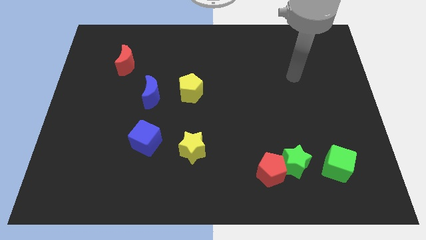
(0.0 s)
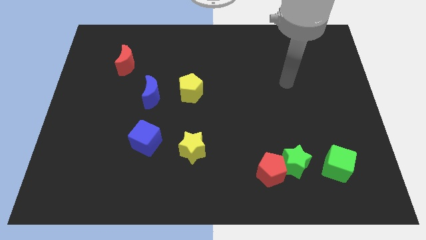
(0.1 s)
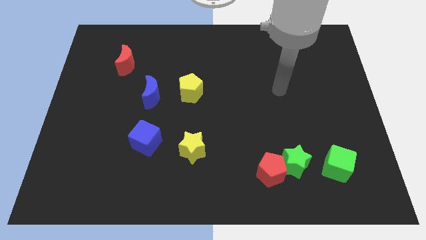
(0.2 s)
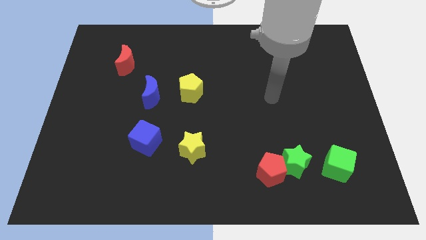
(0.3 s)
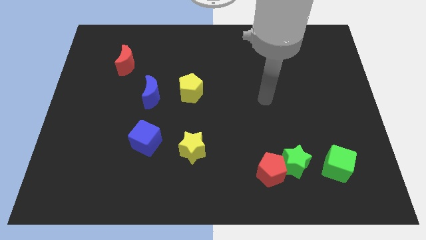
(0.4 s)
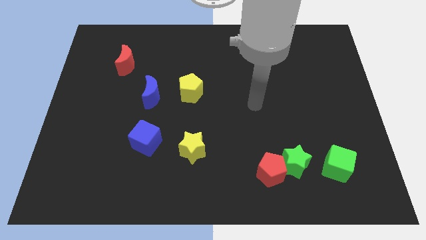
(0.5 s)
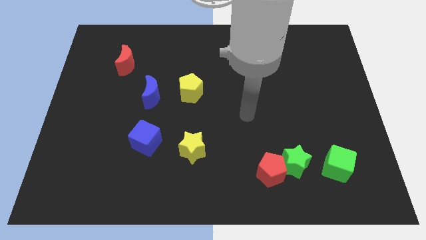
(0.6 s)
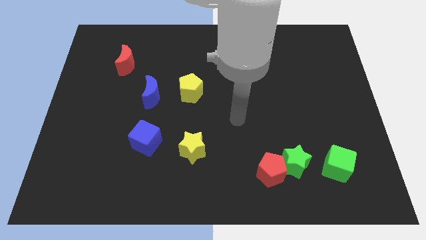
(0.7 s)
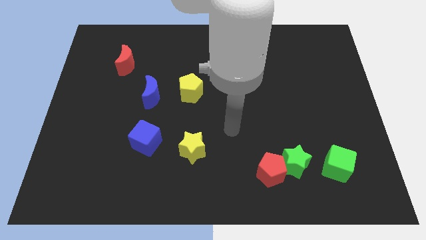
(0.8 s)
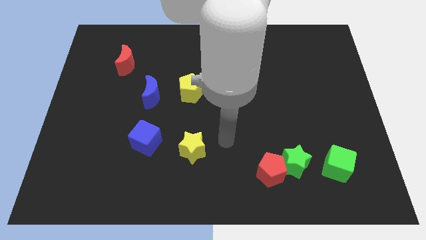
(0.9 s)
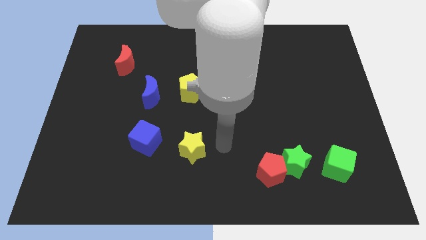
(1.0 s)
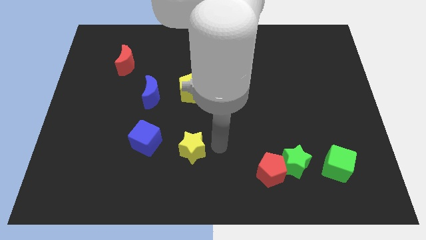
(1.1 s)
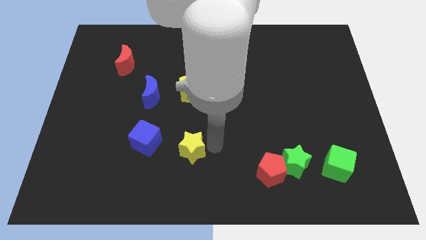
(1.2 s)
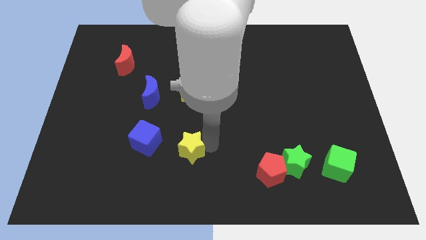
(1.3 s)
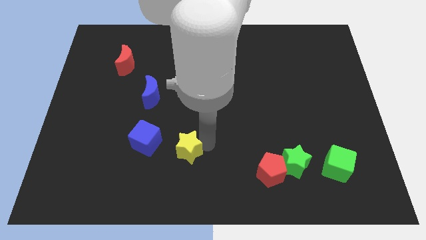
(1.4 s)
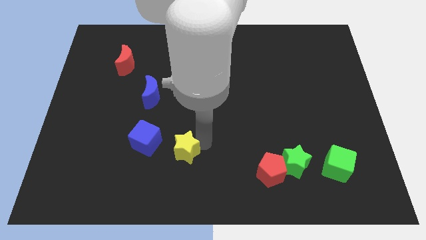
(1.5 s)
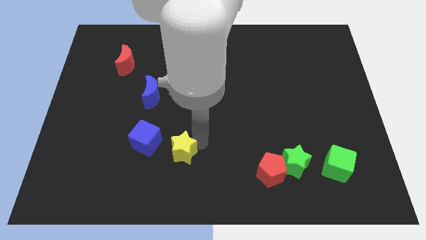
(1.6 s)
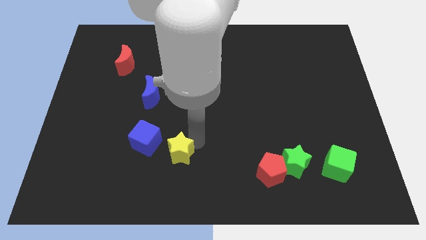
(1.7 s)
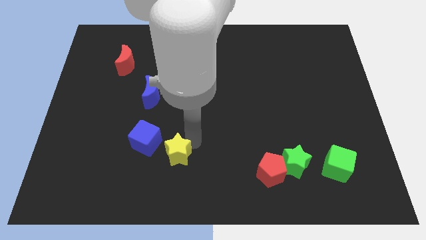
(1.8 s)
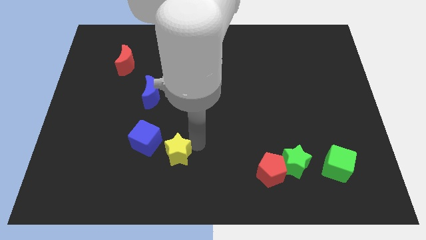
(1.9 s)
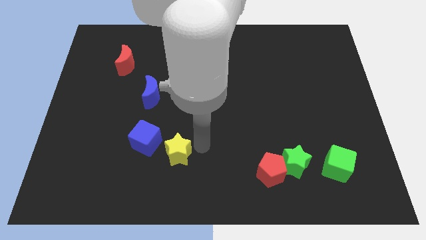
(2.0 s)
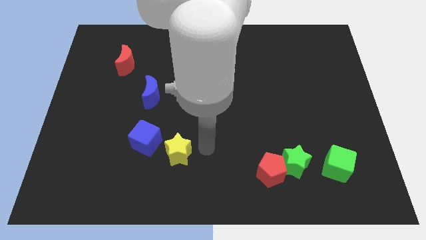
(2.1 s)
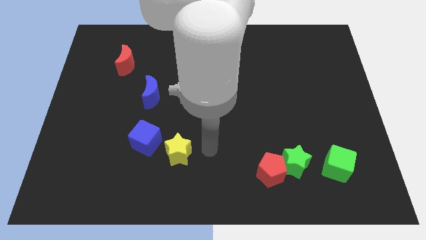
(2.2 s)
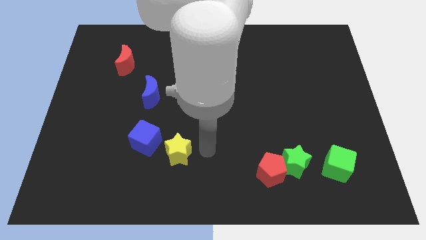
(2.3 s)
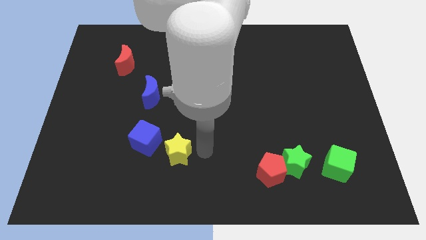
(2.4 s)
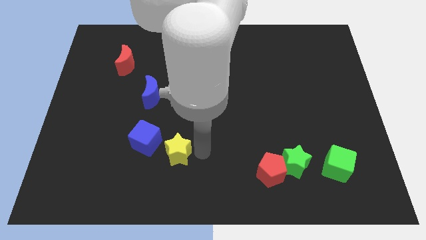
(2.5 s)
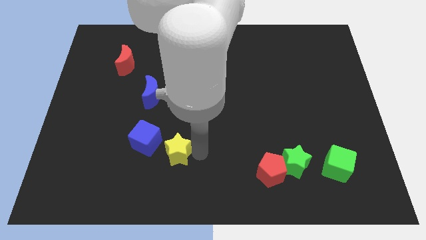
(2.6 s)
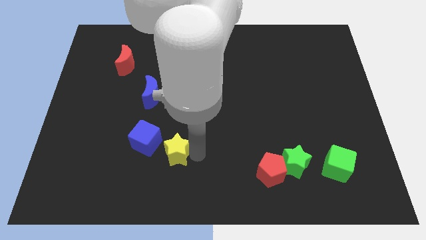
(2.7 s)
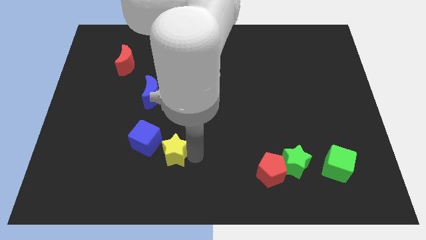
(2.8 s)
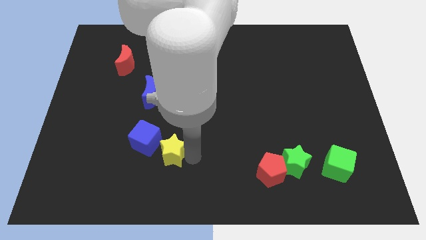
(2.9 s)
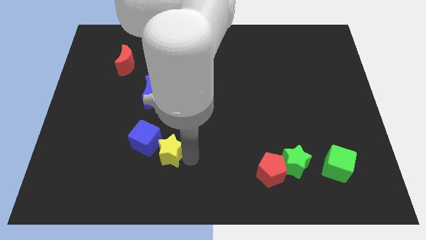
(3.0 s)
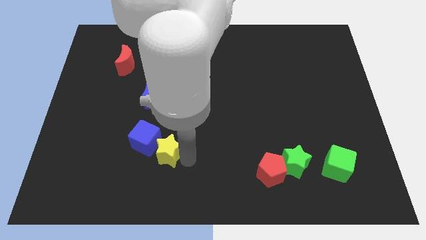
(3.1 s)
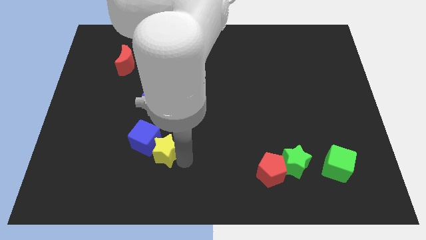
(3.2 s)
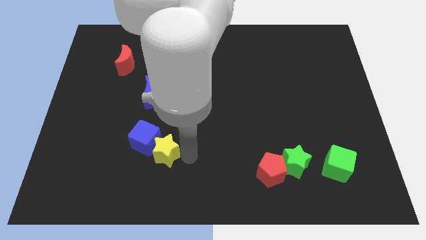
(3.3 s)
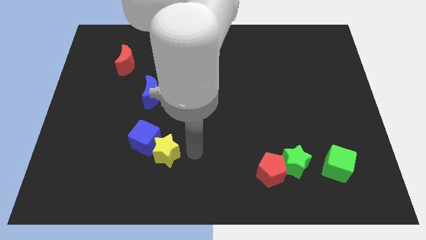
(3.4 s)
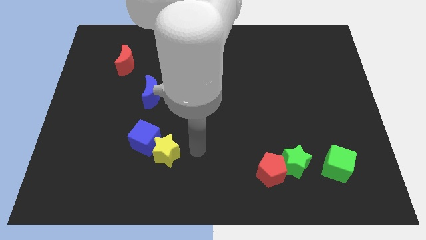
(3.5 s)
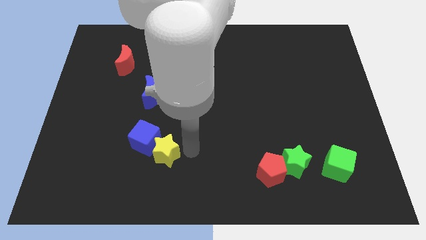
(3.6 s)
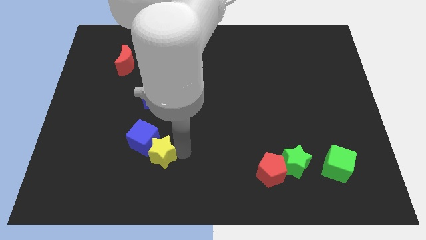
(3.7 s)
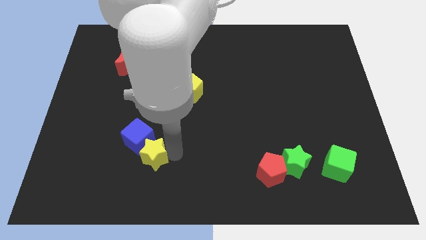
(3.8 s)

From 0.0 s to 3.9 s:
push the yellow star a bit to the left

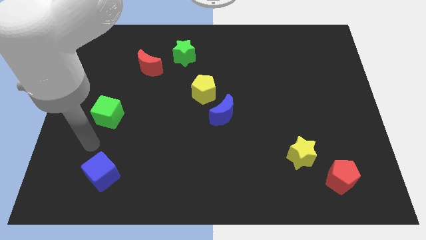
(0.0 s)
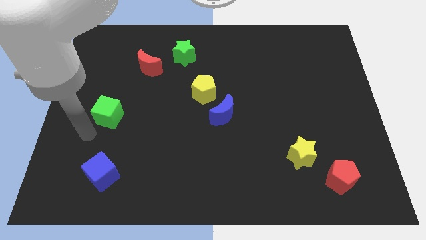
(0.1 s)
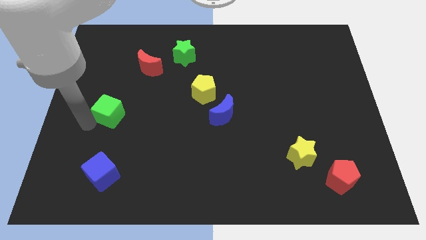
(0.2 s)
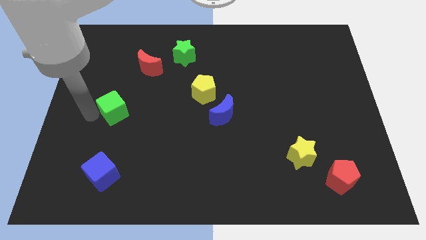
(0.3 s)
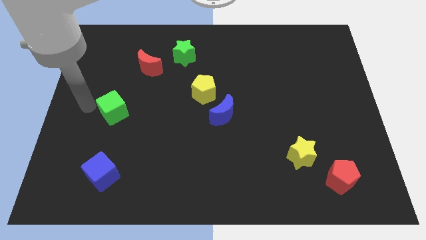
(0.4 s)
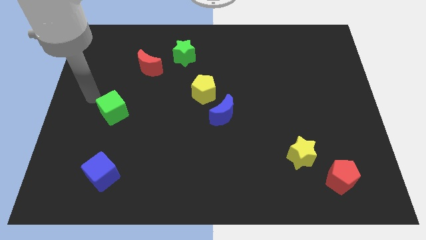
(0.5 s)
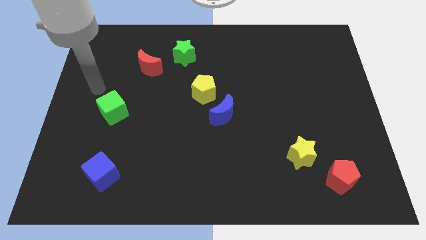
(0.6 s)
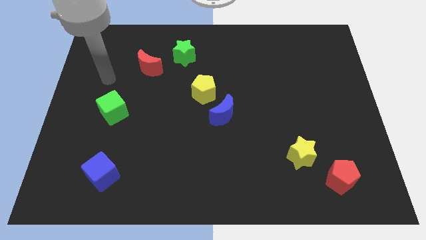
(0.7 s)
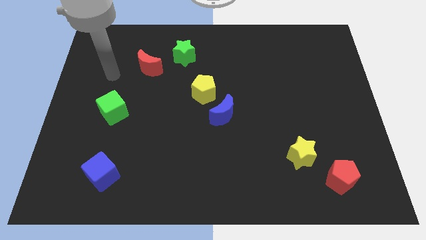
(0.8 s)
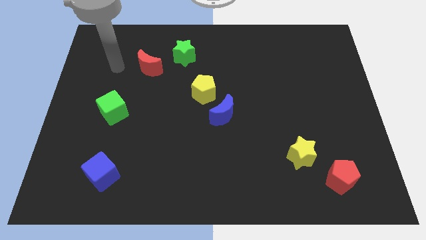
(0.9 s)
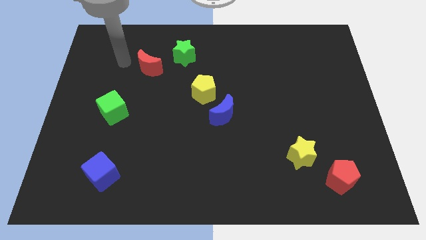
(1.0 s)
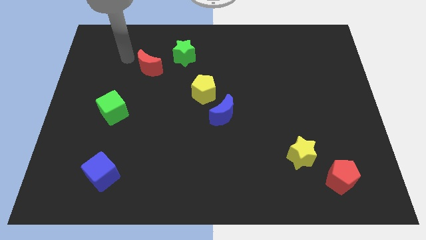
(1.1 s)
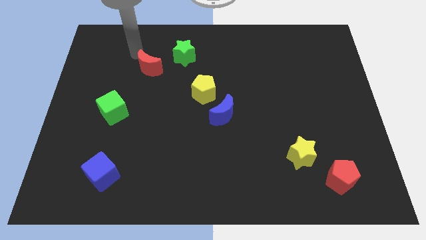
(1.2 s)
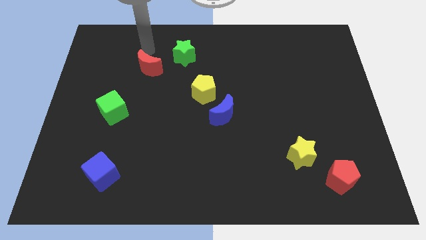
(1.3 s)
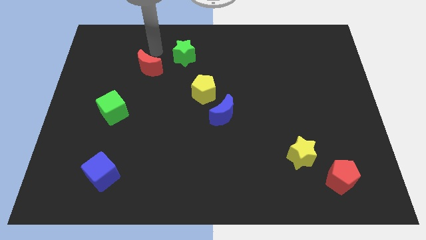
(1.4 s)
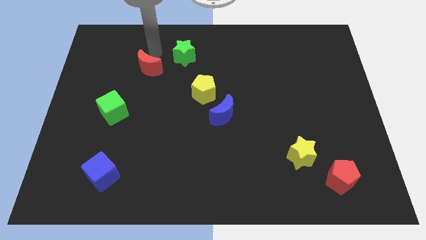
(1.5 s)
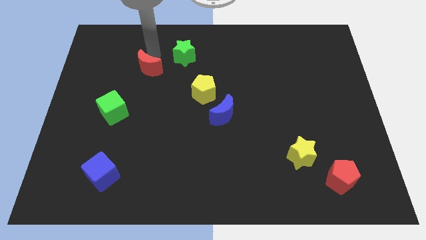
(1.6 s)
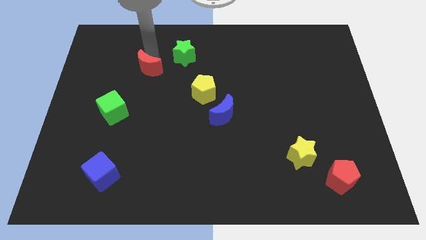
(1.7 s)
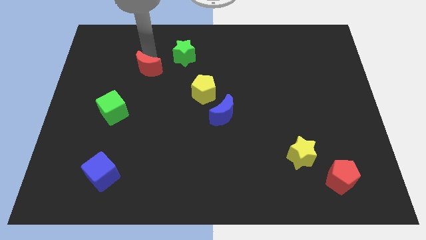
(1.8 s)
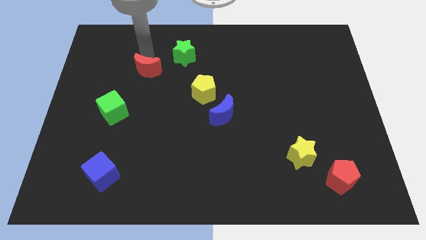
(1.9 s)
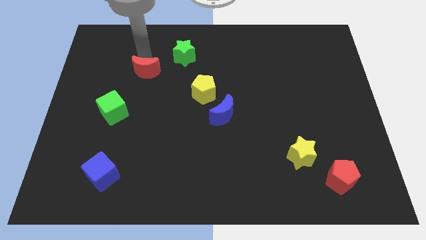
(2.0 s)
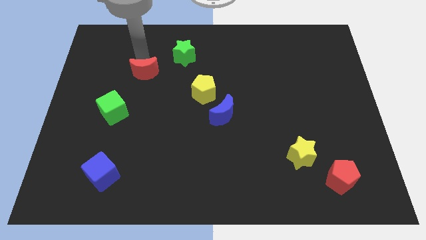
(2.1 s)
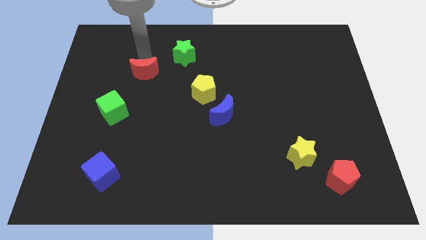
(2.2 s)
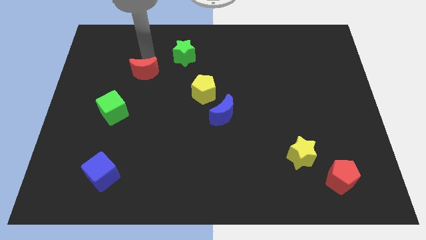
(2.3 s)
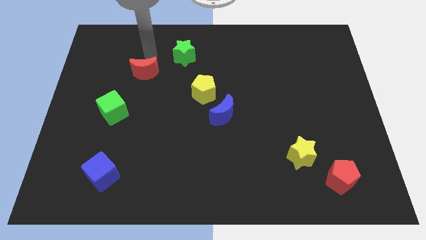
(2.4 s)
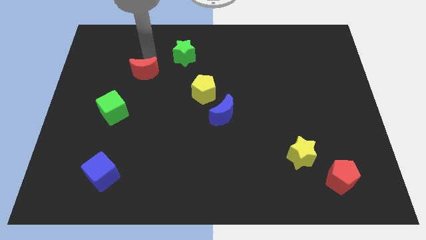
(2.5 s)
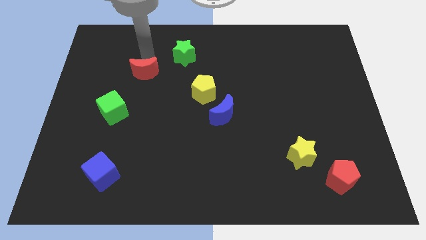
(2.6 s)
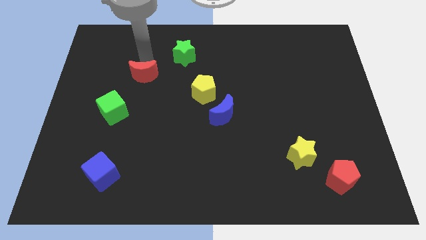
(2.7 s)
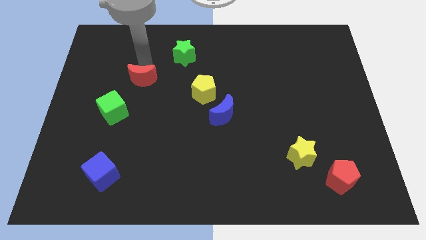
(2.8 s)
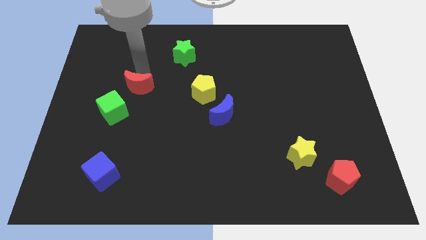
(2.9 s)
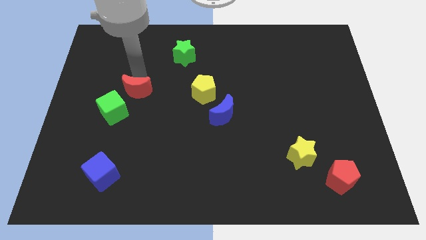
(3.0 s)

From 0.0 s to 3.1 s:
slightly push the red moon downwards

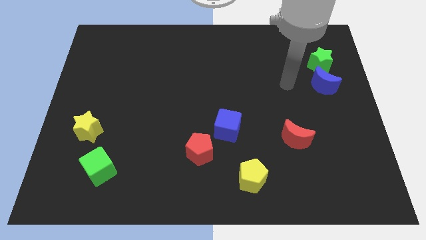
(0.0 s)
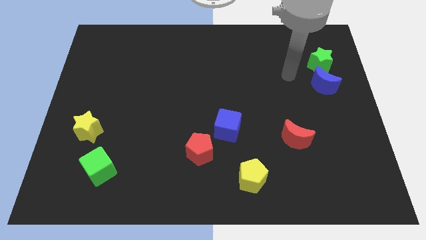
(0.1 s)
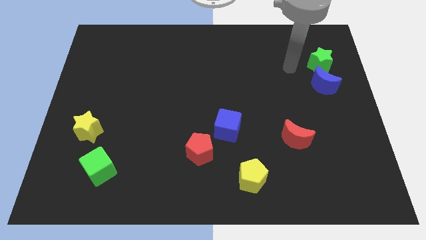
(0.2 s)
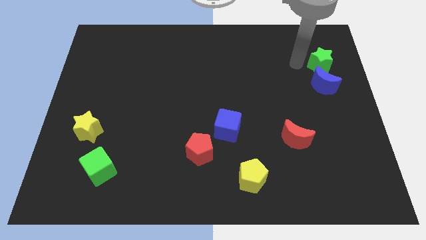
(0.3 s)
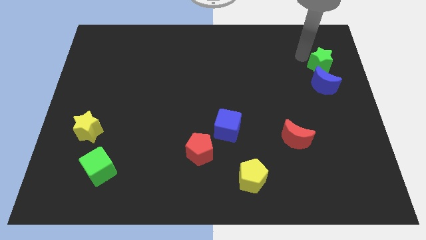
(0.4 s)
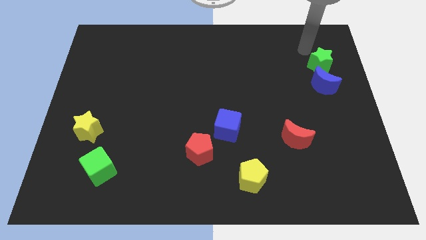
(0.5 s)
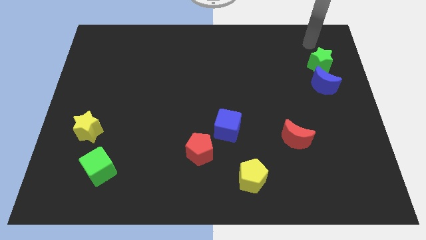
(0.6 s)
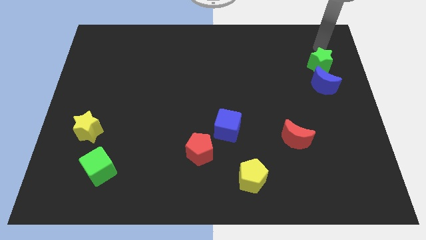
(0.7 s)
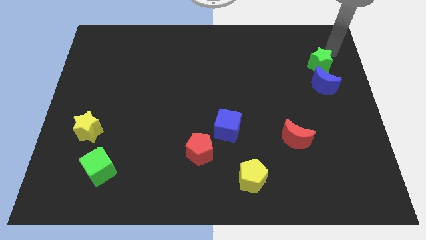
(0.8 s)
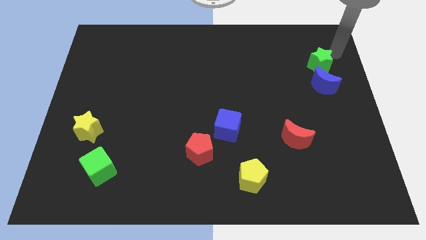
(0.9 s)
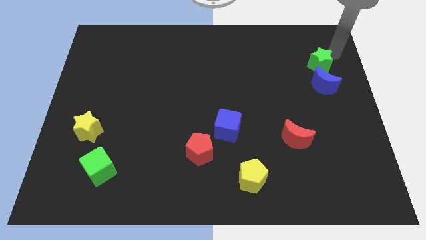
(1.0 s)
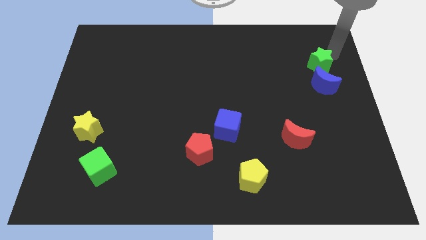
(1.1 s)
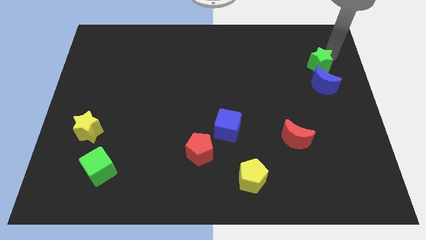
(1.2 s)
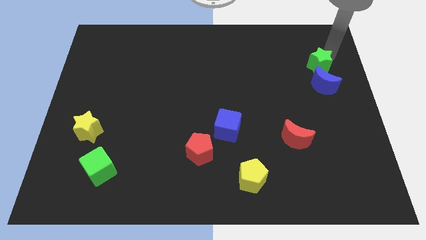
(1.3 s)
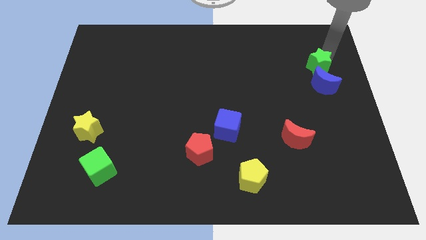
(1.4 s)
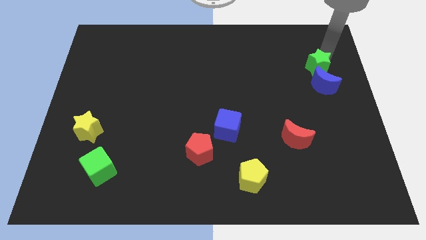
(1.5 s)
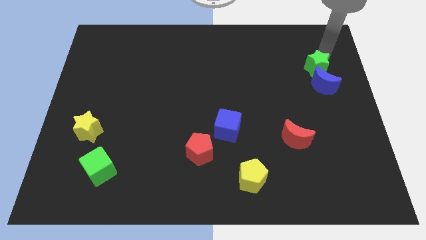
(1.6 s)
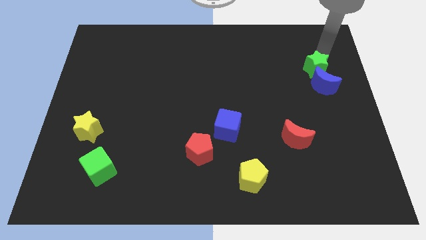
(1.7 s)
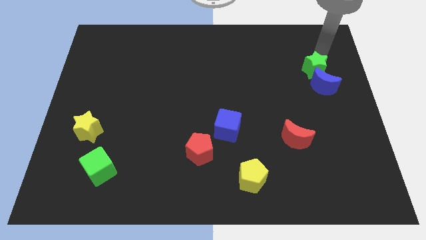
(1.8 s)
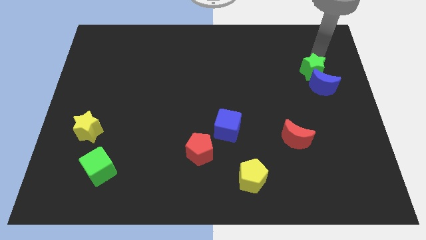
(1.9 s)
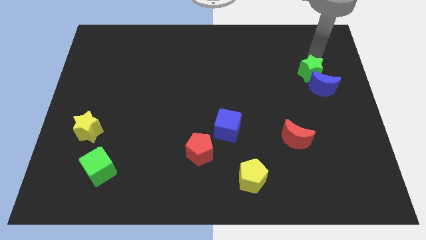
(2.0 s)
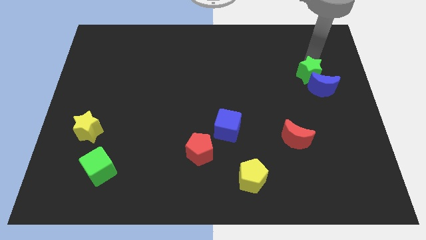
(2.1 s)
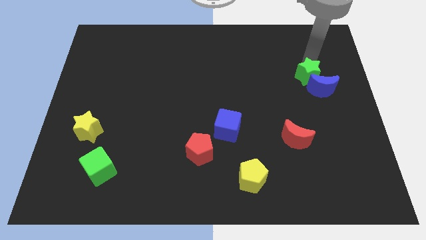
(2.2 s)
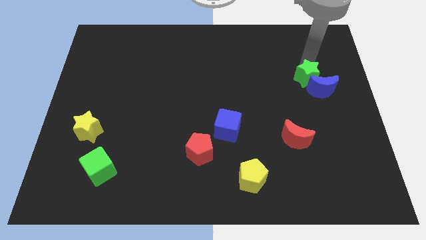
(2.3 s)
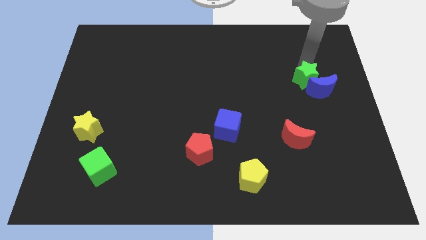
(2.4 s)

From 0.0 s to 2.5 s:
slightly slide the green star downwards and left
